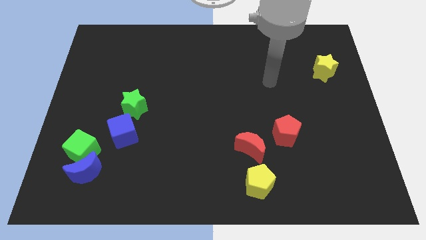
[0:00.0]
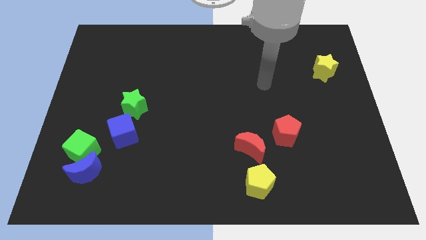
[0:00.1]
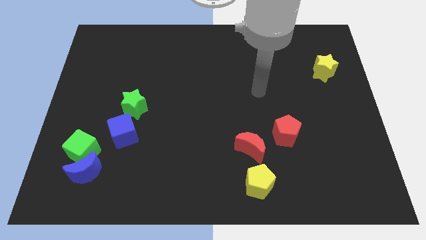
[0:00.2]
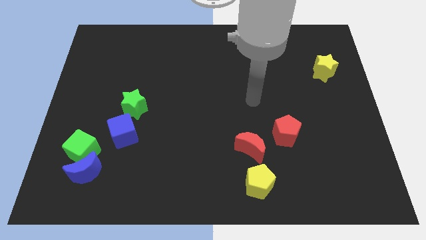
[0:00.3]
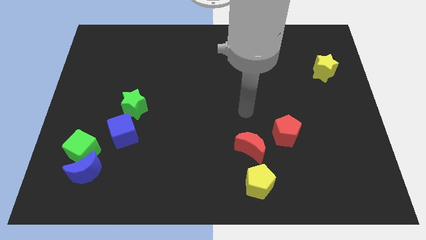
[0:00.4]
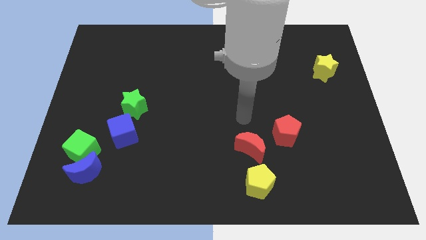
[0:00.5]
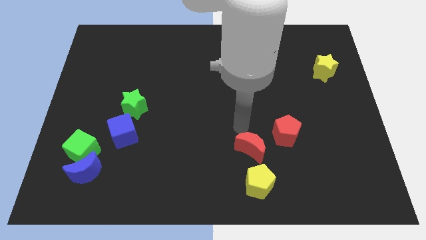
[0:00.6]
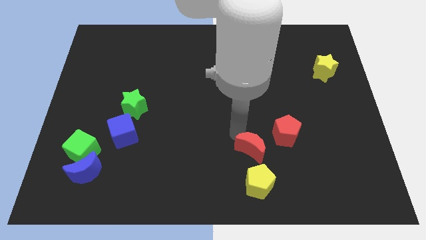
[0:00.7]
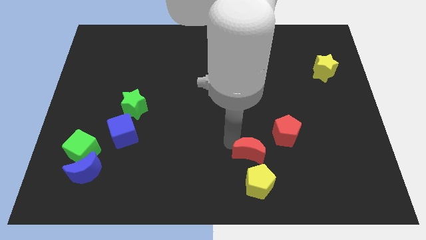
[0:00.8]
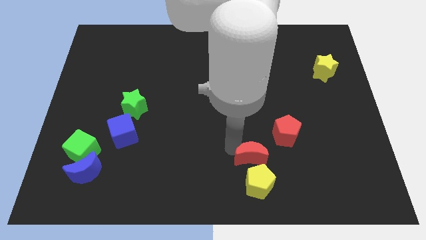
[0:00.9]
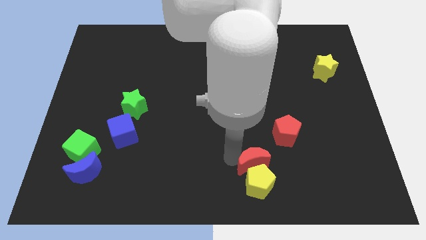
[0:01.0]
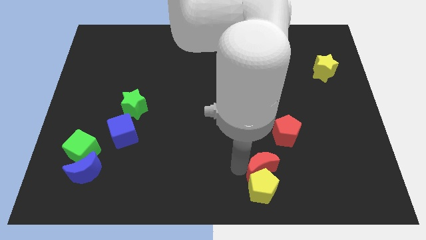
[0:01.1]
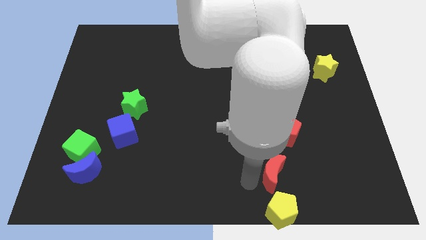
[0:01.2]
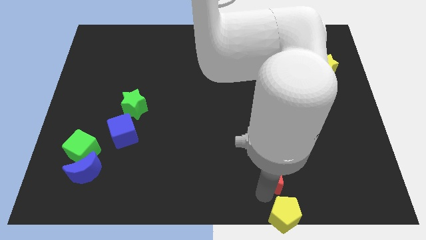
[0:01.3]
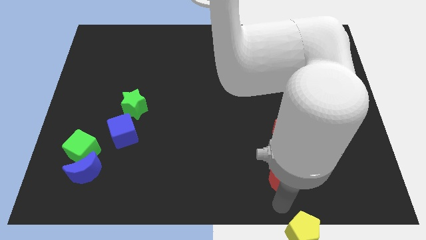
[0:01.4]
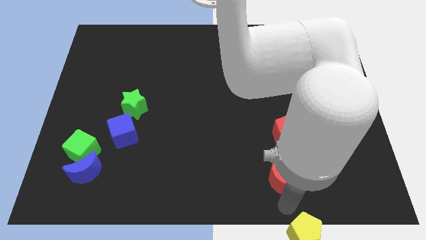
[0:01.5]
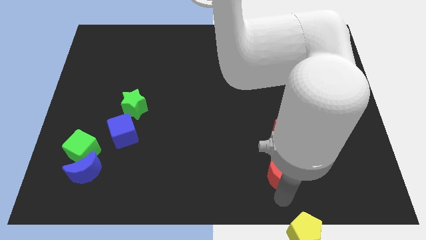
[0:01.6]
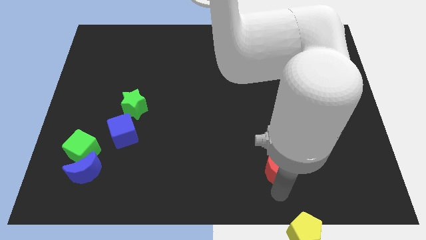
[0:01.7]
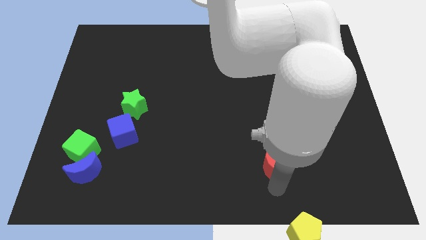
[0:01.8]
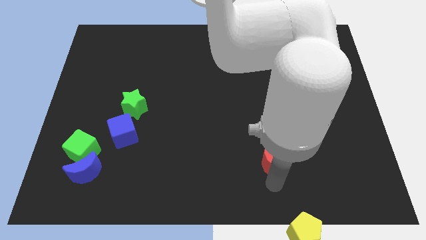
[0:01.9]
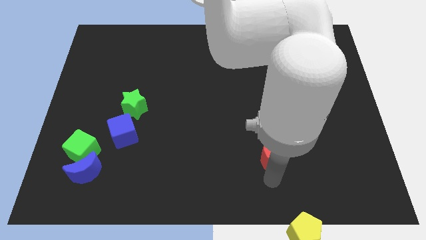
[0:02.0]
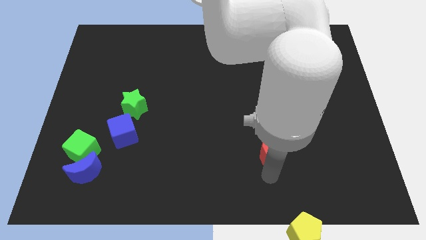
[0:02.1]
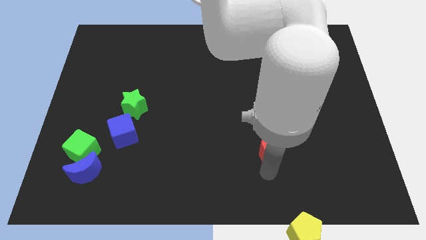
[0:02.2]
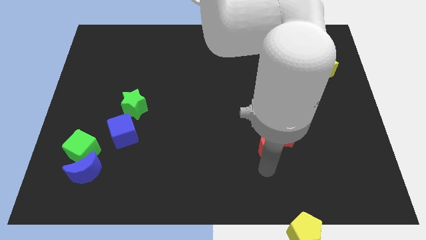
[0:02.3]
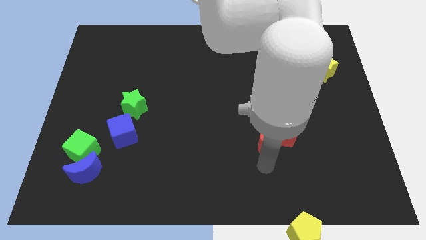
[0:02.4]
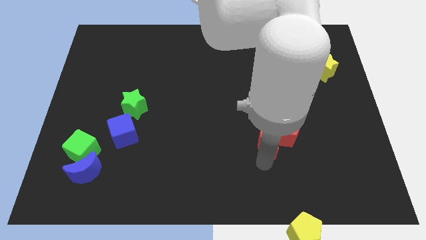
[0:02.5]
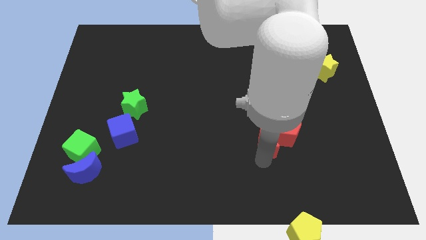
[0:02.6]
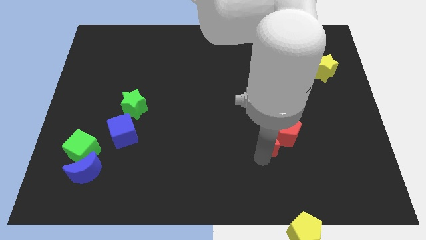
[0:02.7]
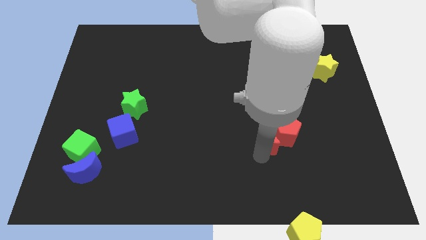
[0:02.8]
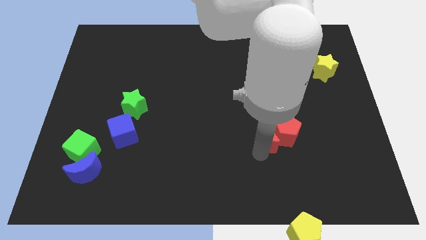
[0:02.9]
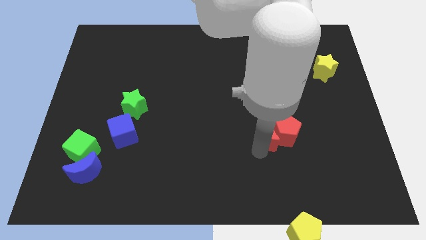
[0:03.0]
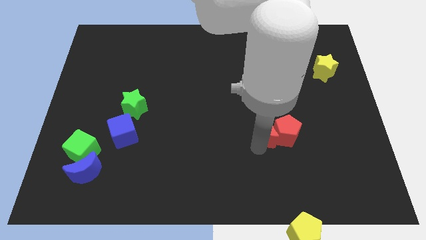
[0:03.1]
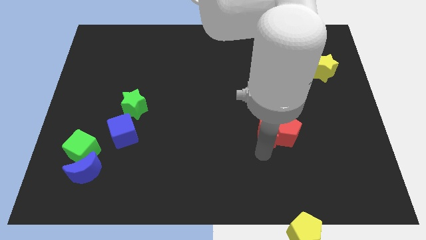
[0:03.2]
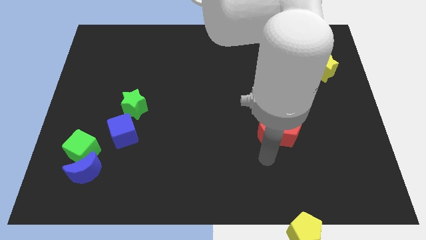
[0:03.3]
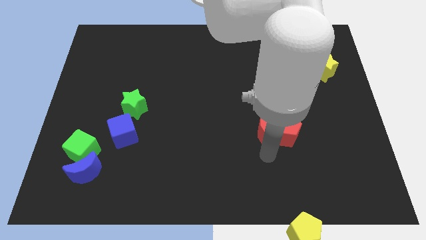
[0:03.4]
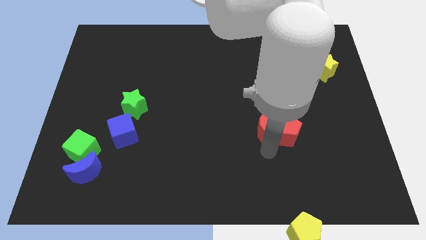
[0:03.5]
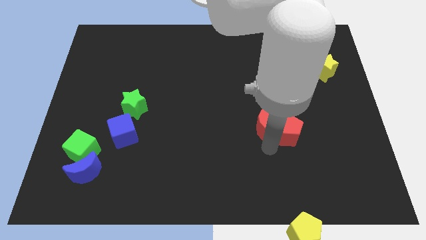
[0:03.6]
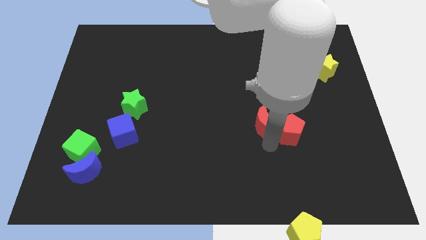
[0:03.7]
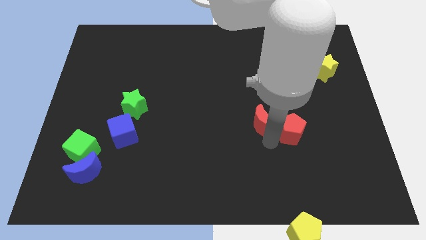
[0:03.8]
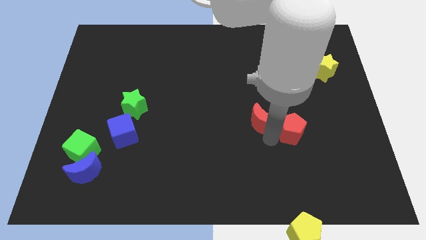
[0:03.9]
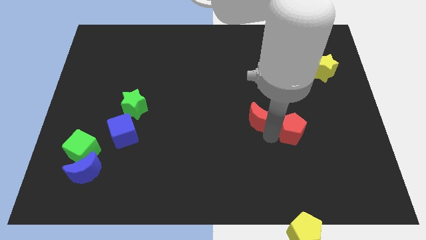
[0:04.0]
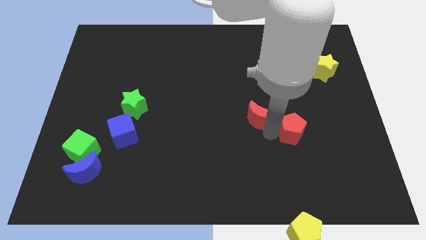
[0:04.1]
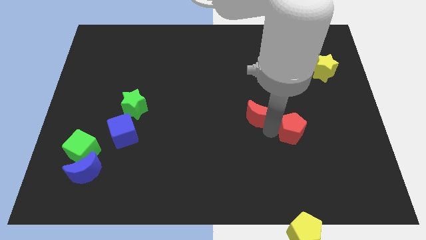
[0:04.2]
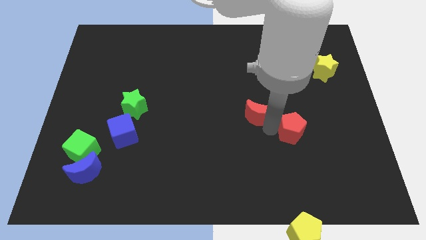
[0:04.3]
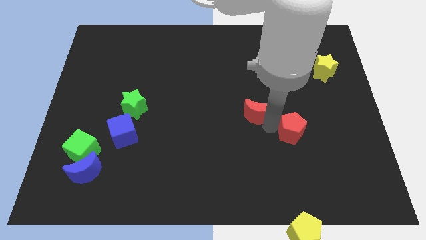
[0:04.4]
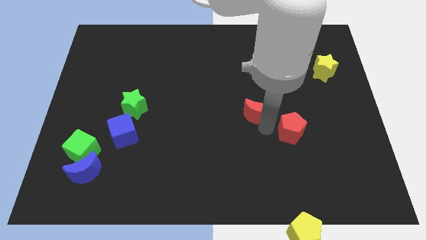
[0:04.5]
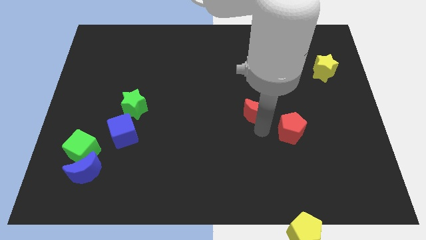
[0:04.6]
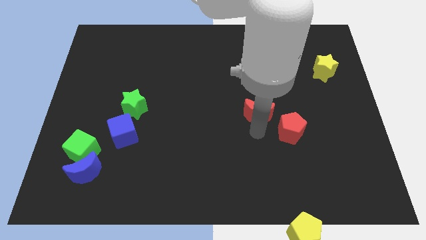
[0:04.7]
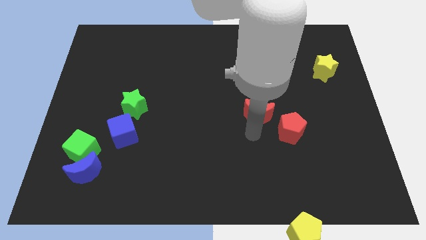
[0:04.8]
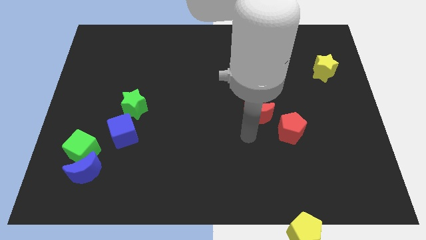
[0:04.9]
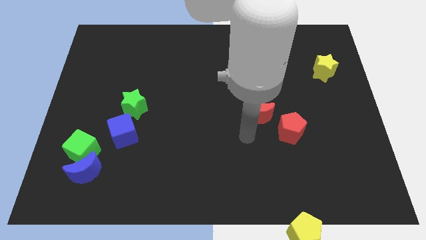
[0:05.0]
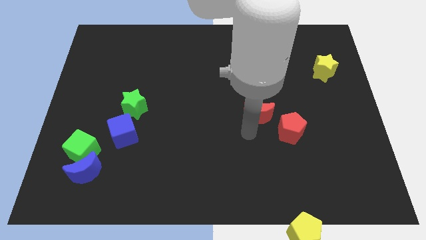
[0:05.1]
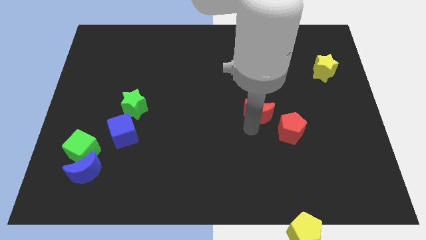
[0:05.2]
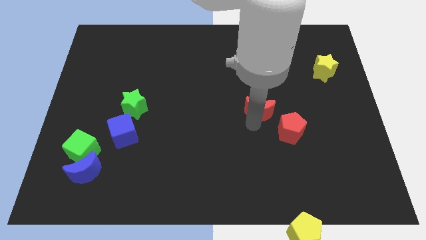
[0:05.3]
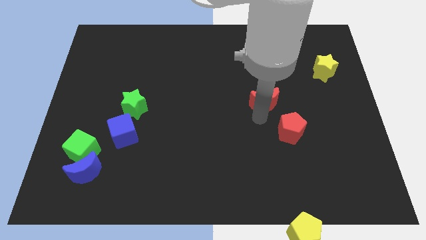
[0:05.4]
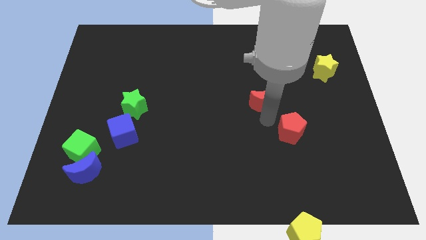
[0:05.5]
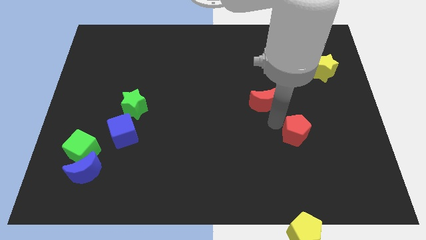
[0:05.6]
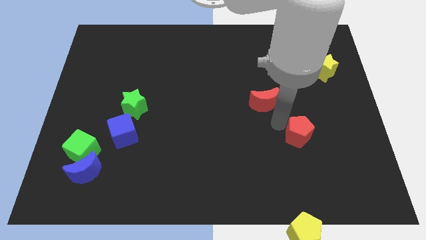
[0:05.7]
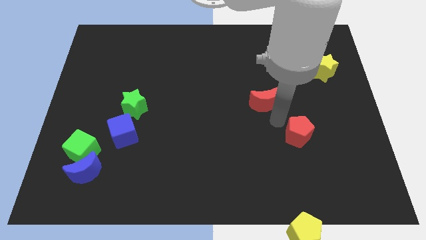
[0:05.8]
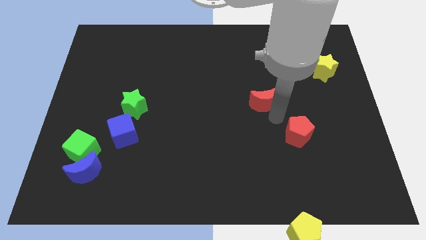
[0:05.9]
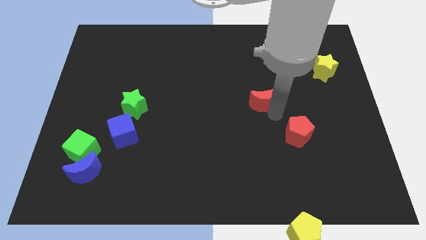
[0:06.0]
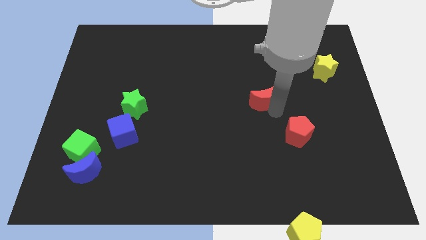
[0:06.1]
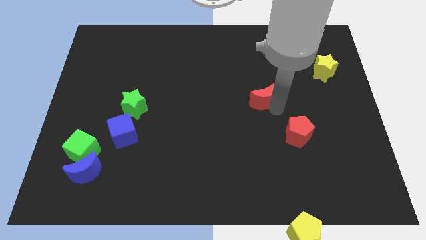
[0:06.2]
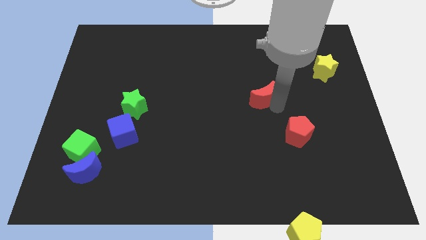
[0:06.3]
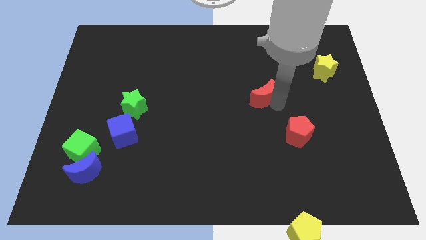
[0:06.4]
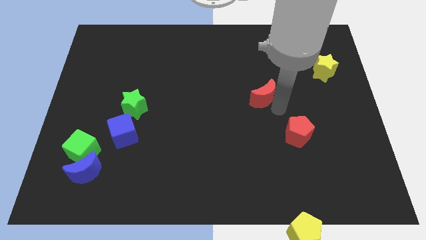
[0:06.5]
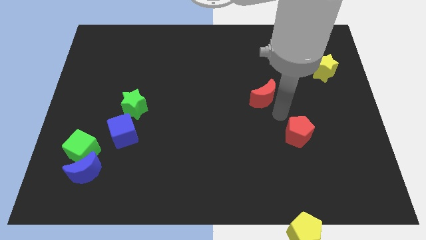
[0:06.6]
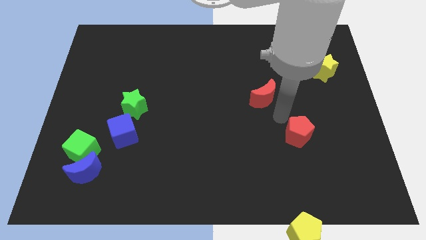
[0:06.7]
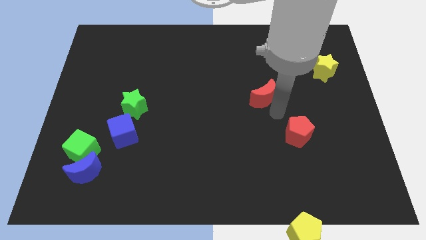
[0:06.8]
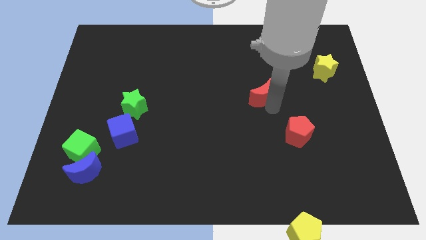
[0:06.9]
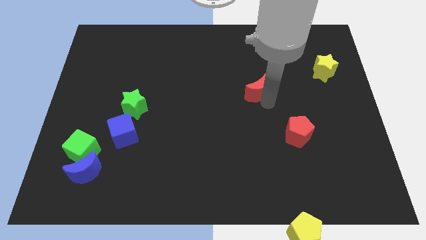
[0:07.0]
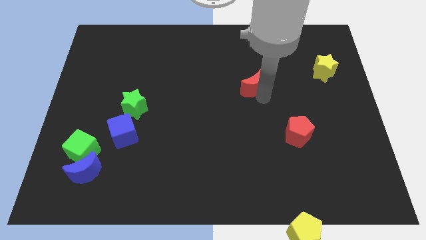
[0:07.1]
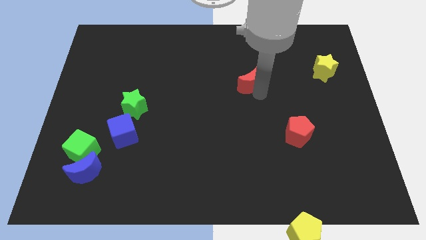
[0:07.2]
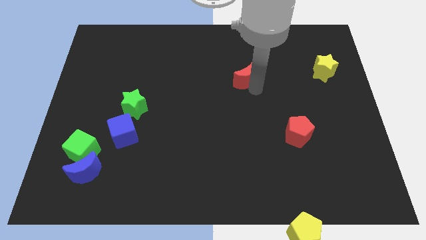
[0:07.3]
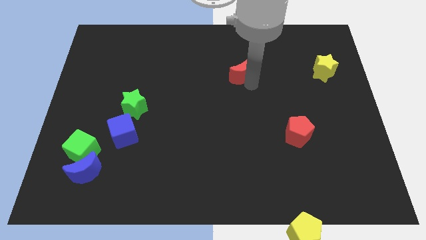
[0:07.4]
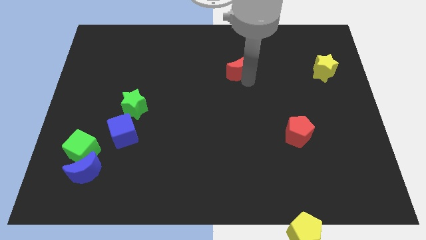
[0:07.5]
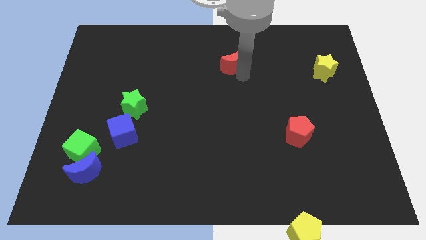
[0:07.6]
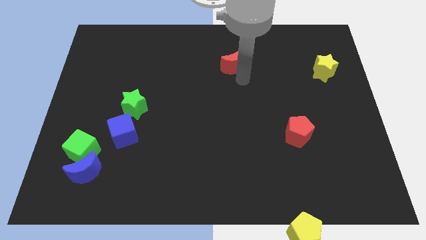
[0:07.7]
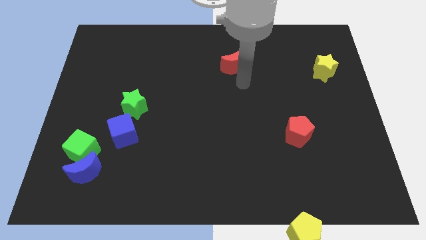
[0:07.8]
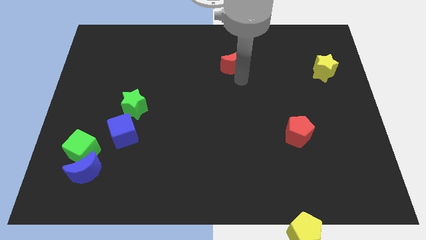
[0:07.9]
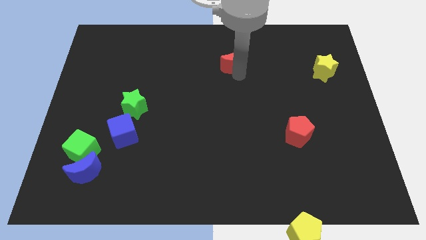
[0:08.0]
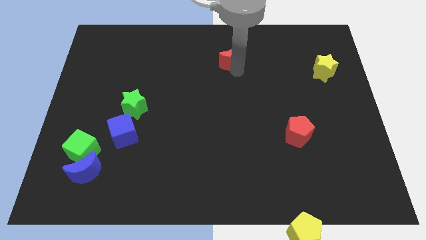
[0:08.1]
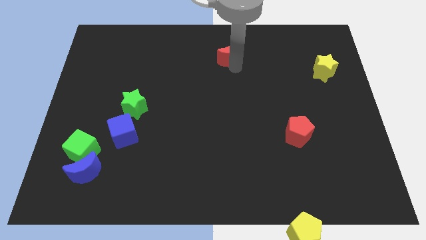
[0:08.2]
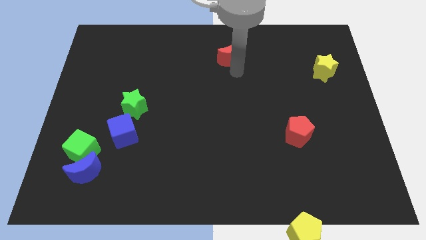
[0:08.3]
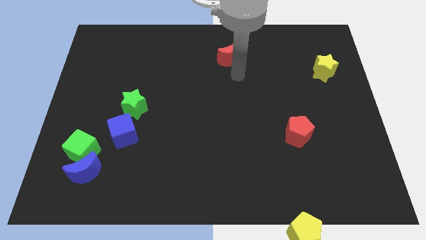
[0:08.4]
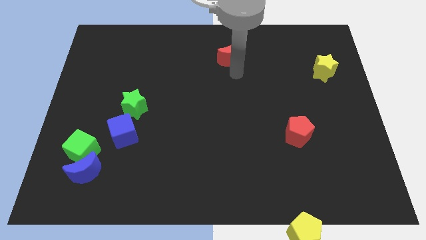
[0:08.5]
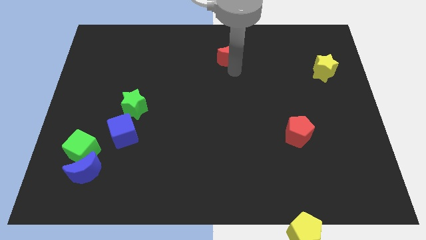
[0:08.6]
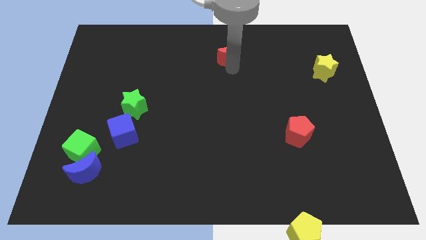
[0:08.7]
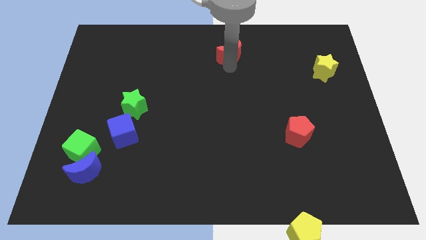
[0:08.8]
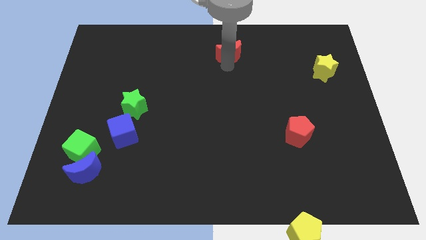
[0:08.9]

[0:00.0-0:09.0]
push the red moon to the top
